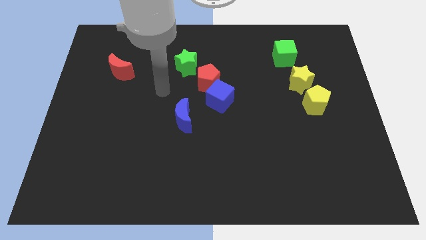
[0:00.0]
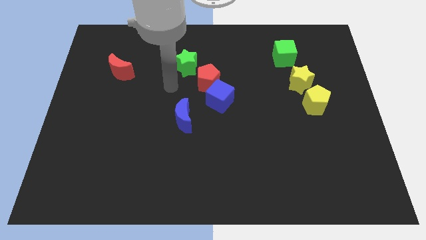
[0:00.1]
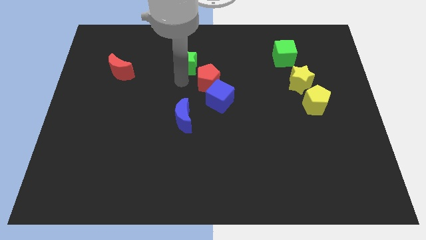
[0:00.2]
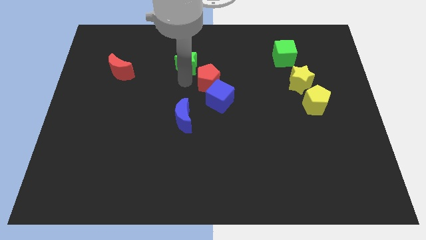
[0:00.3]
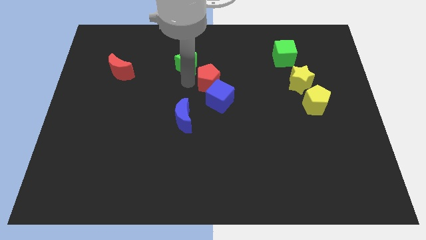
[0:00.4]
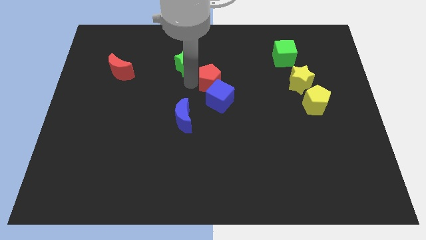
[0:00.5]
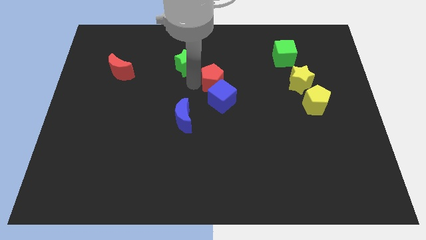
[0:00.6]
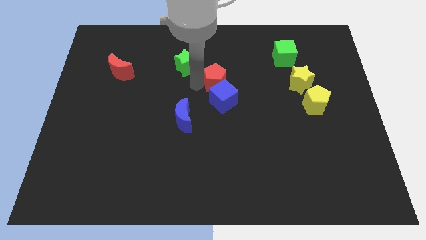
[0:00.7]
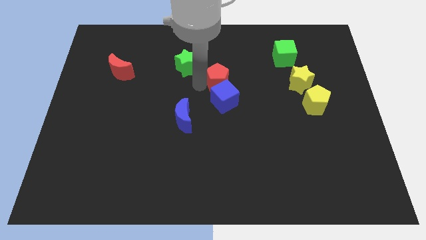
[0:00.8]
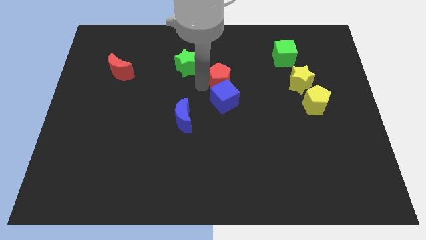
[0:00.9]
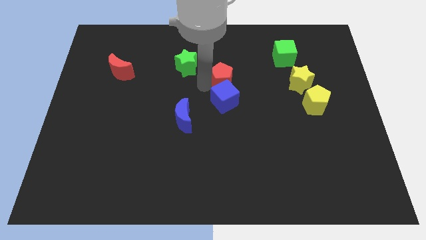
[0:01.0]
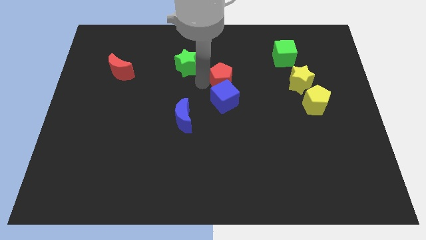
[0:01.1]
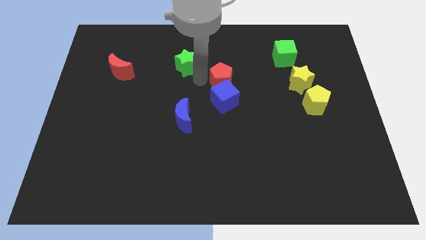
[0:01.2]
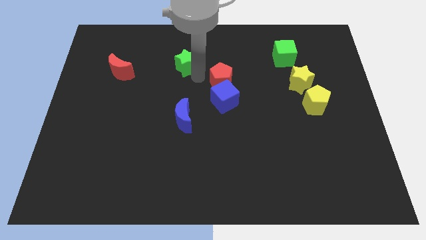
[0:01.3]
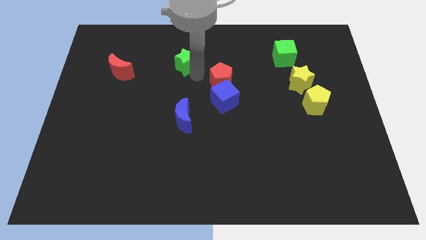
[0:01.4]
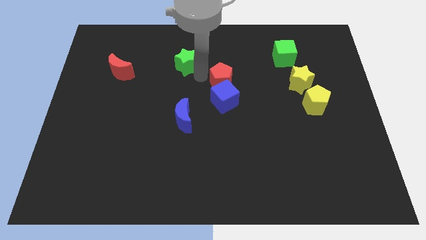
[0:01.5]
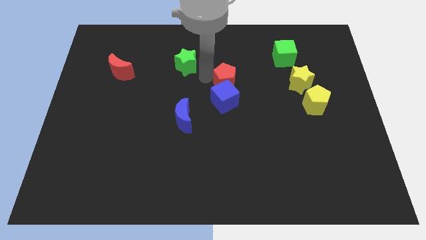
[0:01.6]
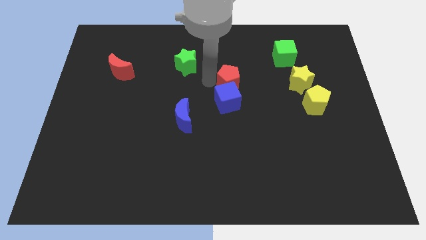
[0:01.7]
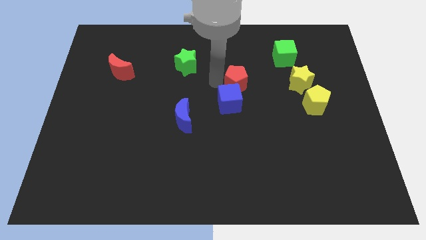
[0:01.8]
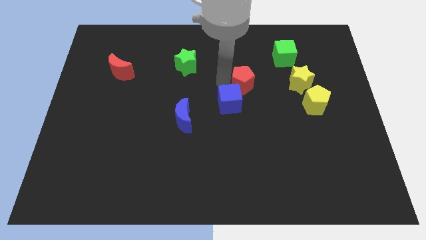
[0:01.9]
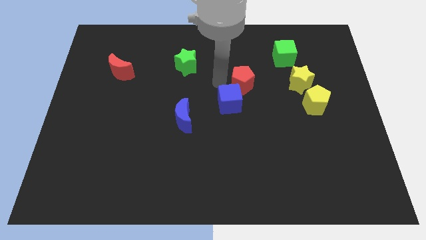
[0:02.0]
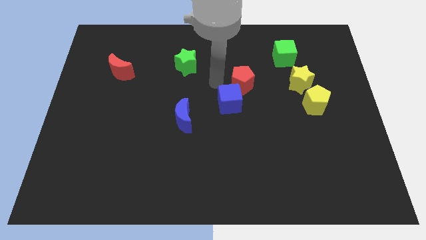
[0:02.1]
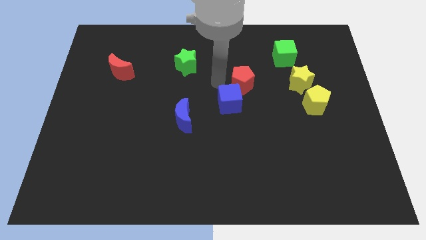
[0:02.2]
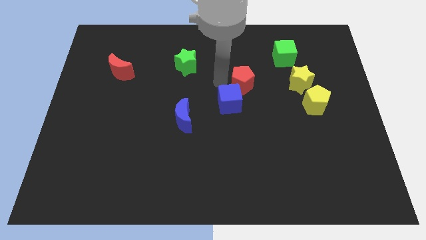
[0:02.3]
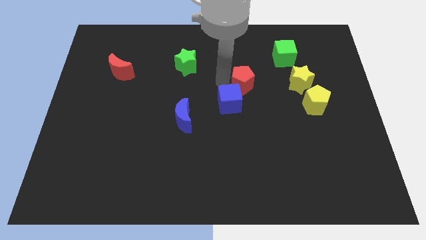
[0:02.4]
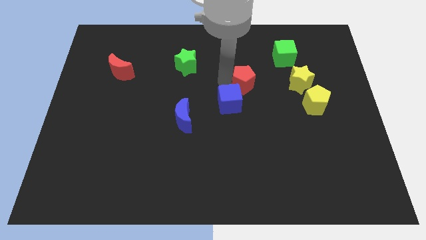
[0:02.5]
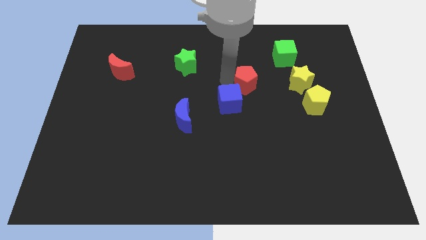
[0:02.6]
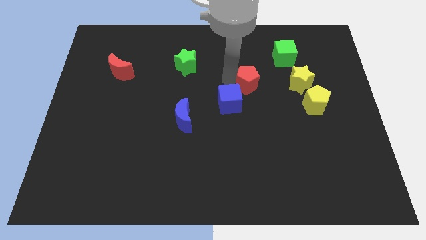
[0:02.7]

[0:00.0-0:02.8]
separate the red pentagon from the blue cube and green star

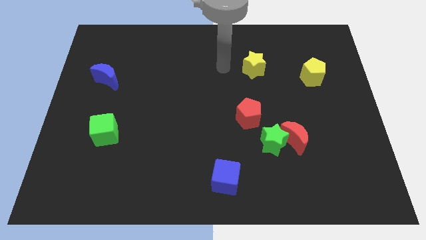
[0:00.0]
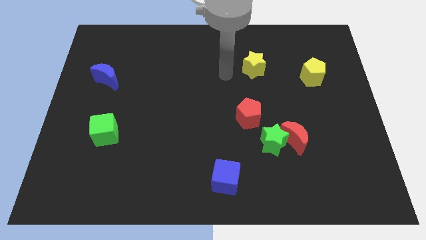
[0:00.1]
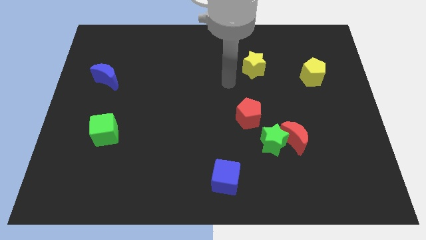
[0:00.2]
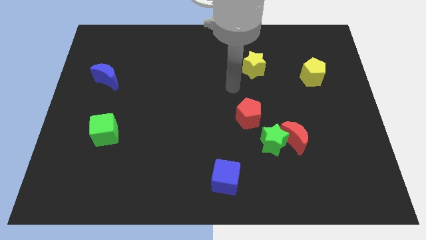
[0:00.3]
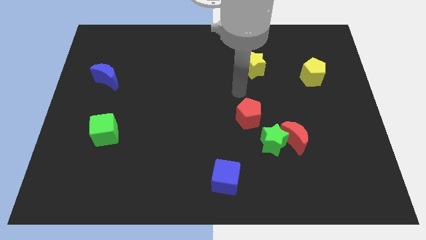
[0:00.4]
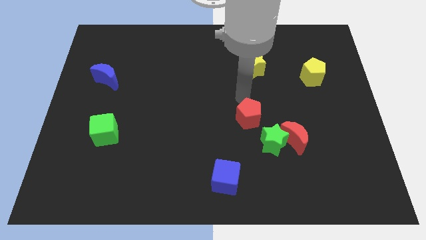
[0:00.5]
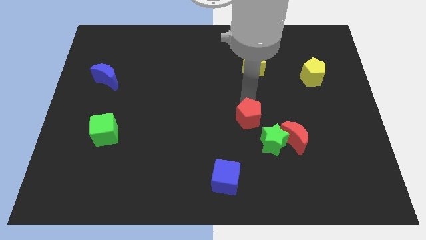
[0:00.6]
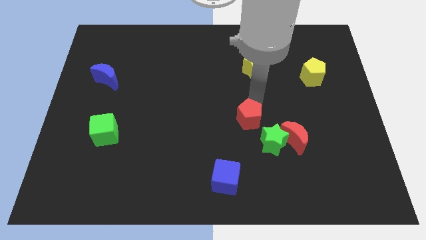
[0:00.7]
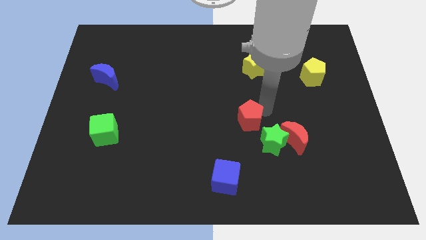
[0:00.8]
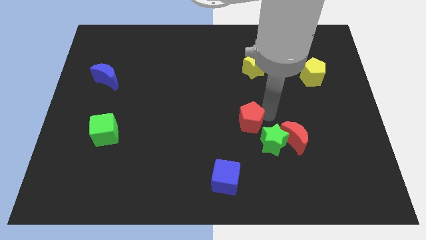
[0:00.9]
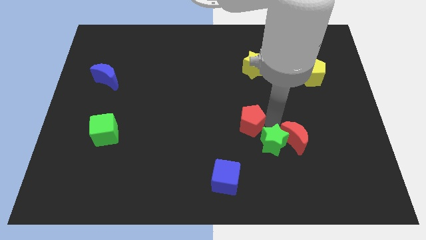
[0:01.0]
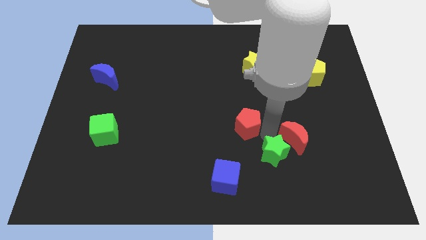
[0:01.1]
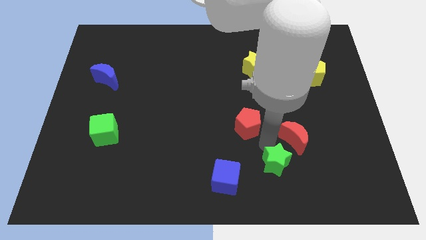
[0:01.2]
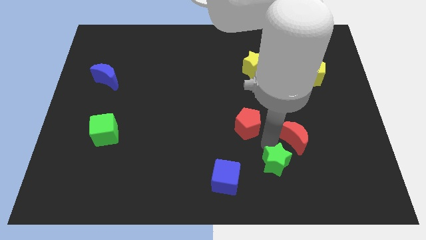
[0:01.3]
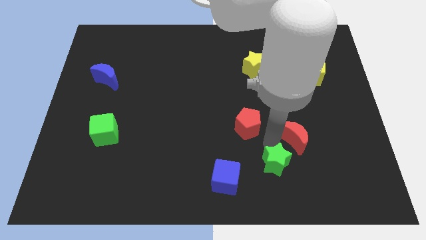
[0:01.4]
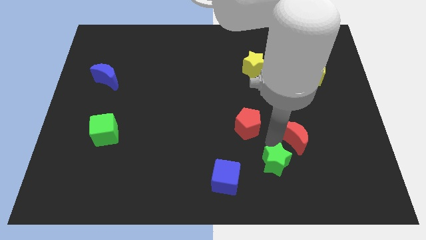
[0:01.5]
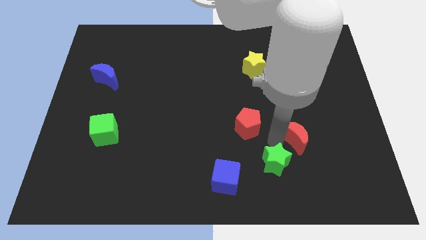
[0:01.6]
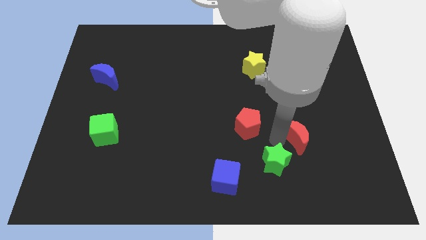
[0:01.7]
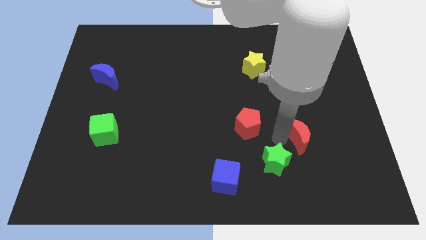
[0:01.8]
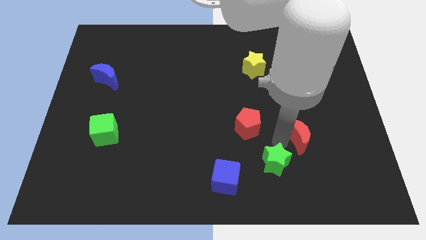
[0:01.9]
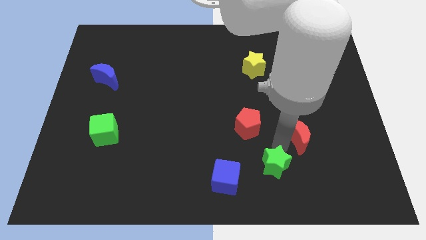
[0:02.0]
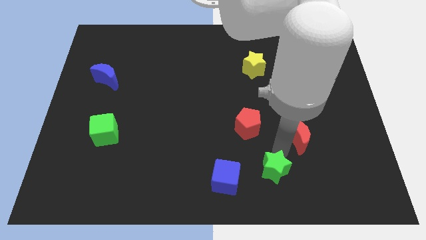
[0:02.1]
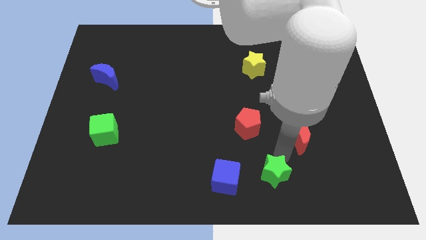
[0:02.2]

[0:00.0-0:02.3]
separate the red moon from the green star

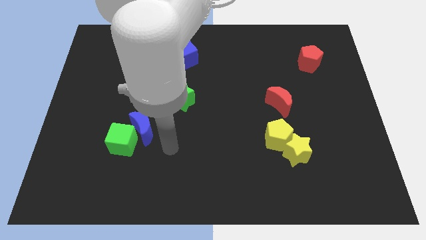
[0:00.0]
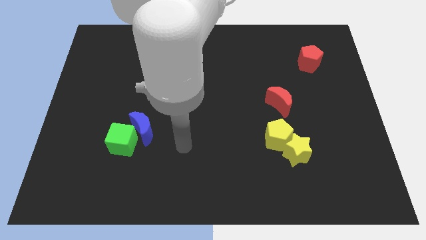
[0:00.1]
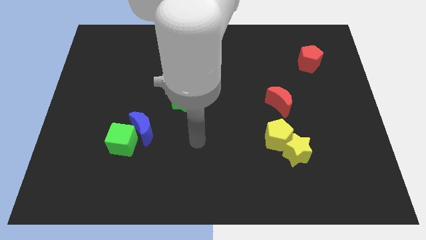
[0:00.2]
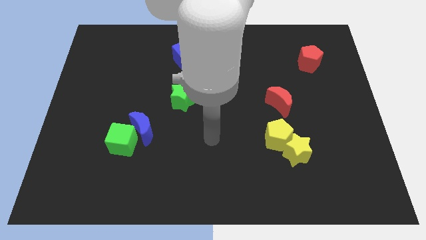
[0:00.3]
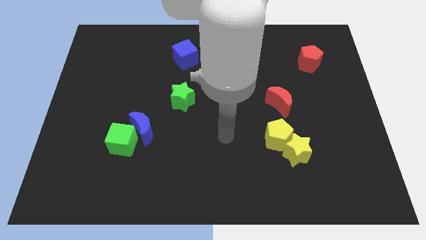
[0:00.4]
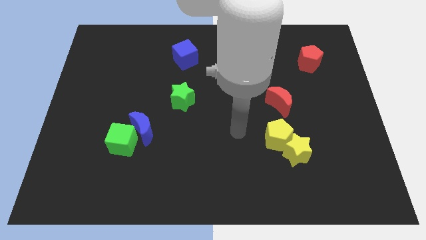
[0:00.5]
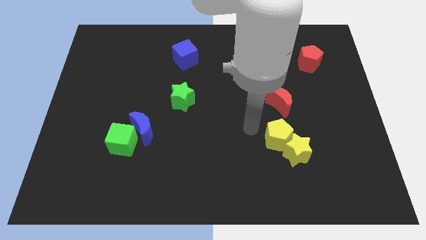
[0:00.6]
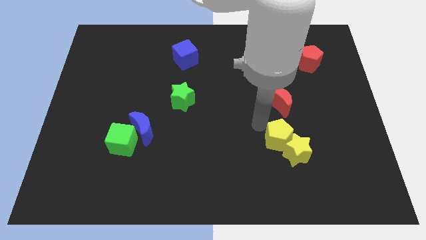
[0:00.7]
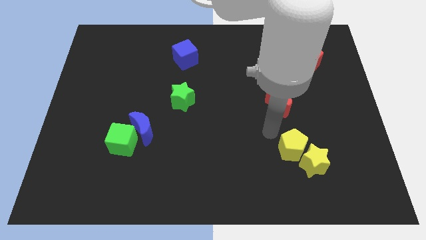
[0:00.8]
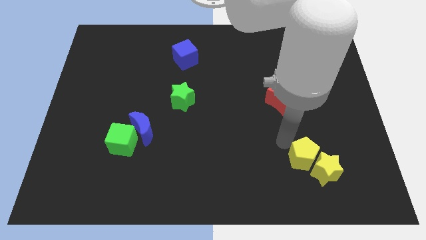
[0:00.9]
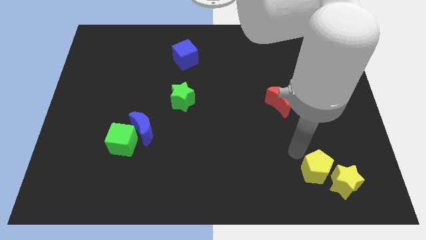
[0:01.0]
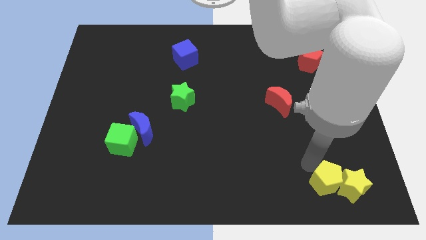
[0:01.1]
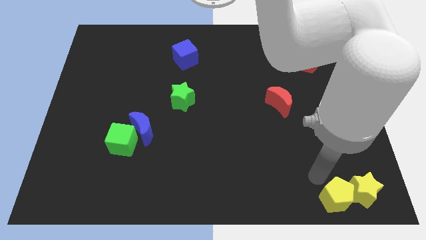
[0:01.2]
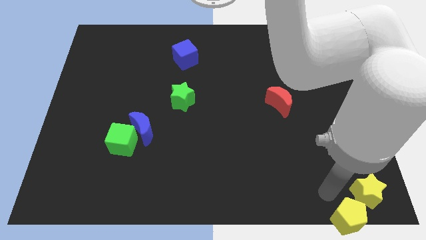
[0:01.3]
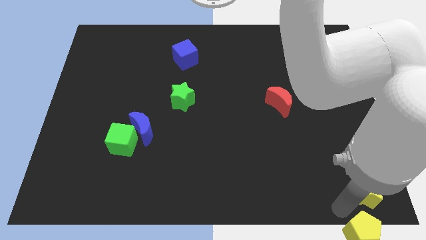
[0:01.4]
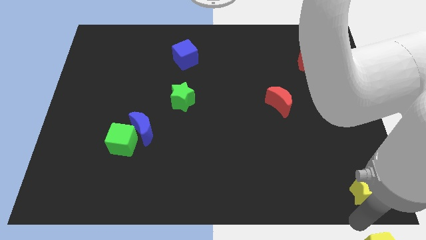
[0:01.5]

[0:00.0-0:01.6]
separate the yellow star from the yellow pentagon

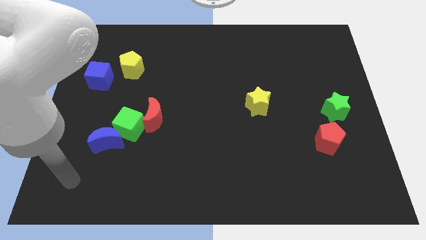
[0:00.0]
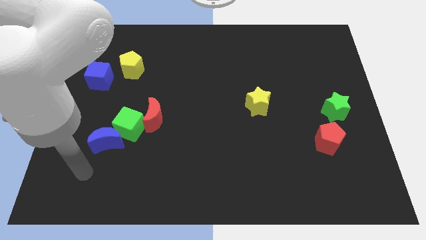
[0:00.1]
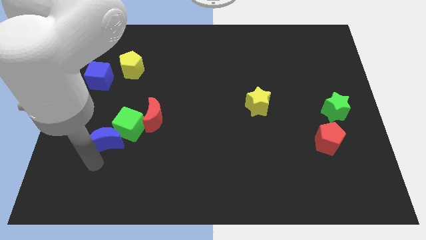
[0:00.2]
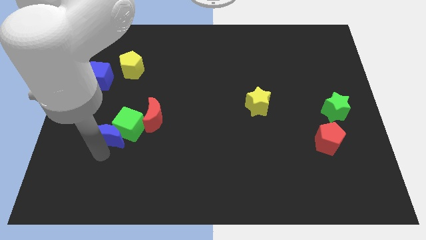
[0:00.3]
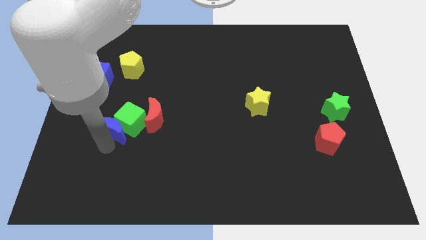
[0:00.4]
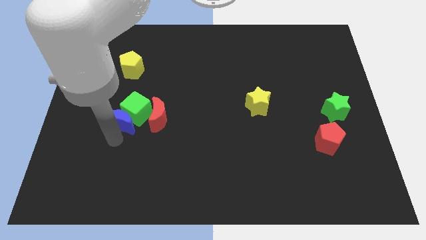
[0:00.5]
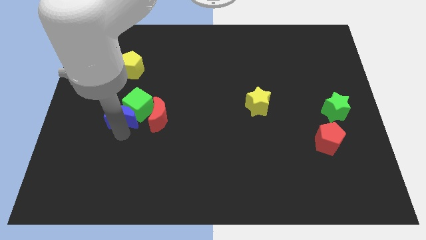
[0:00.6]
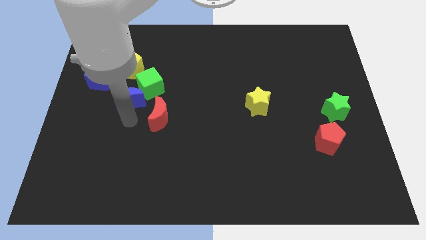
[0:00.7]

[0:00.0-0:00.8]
pull the red moon apart from the green cube

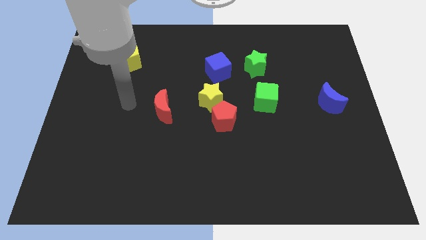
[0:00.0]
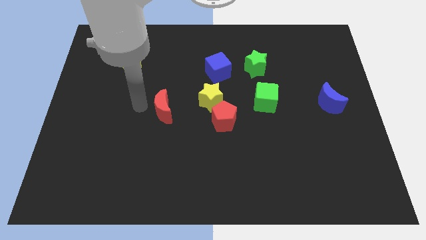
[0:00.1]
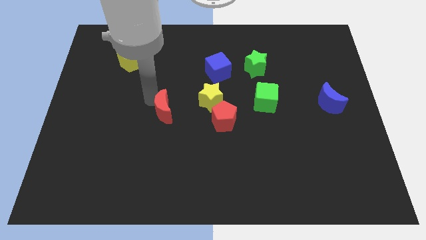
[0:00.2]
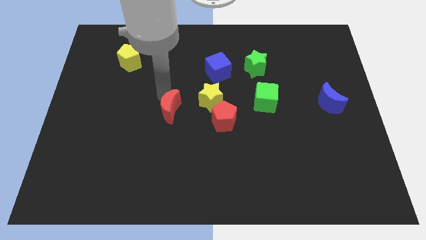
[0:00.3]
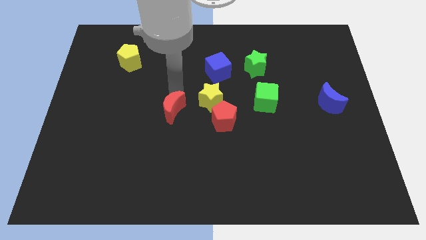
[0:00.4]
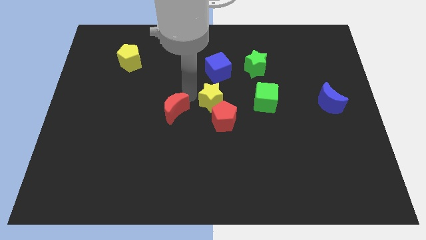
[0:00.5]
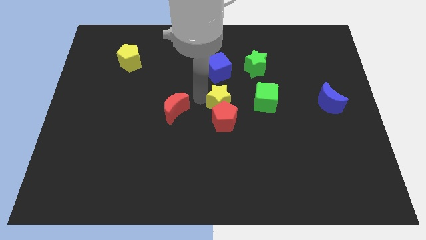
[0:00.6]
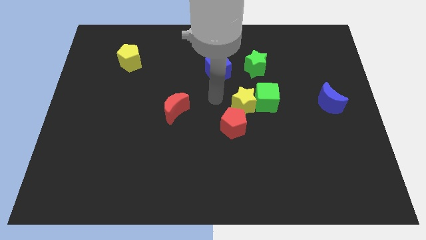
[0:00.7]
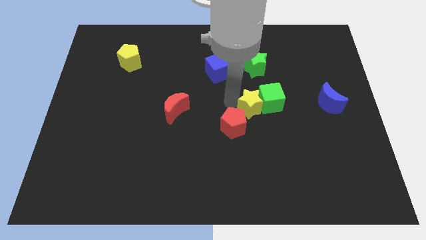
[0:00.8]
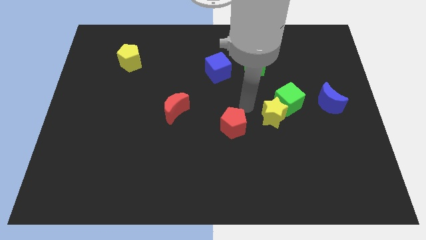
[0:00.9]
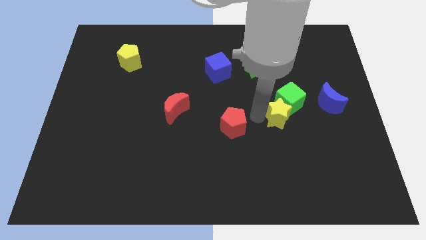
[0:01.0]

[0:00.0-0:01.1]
move the red pentagon away from the yellow star

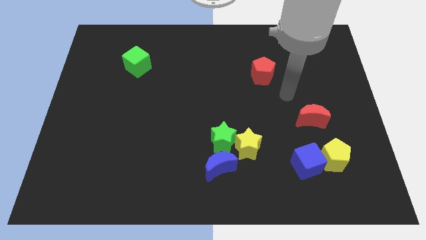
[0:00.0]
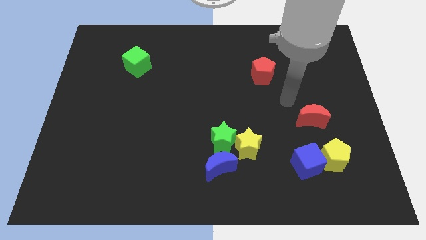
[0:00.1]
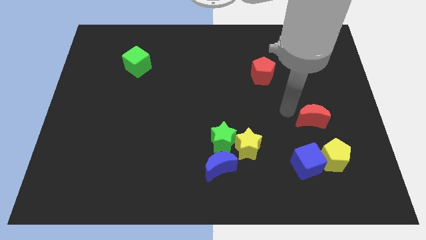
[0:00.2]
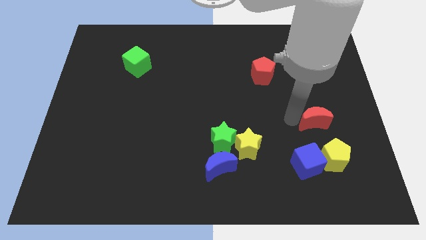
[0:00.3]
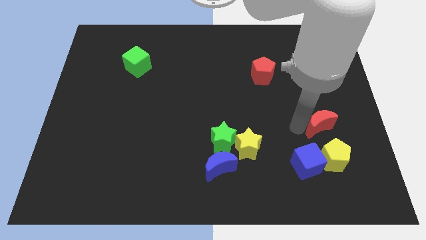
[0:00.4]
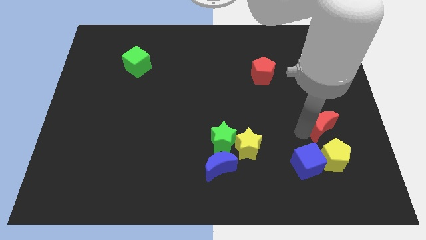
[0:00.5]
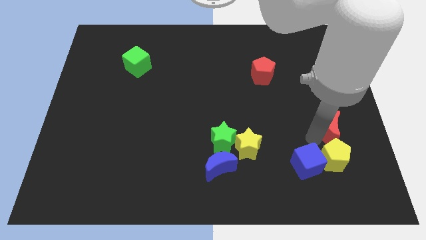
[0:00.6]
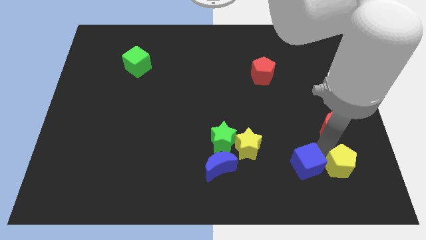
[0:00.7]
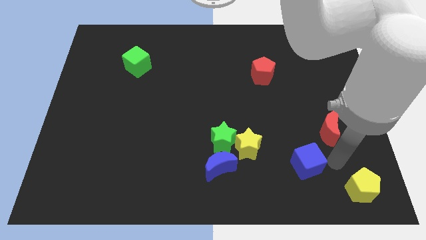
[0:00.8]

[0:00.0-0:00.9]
pull the blue cube apart from the yellow pentagon
